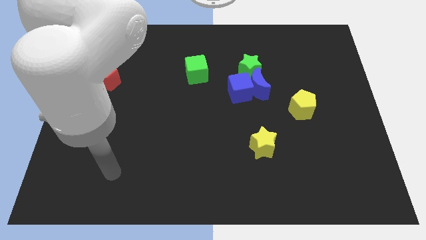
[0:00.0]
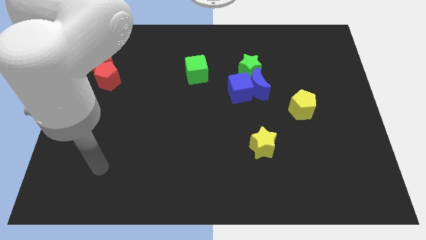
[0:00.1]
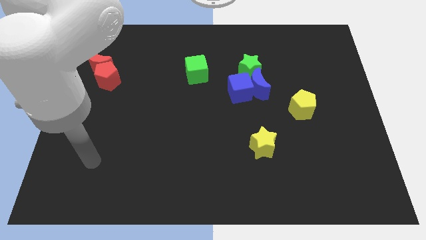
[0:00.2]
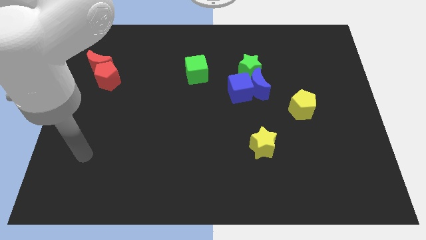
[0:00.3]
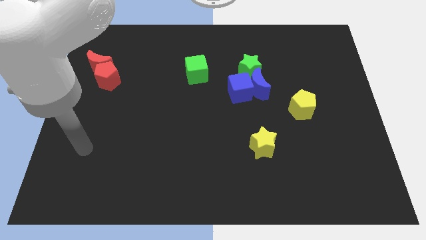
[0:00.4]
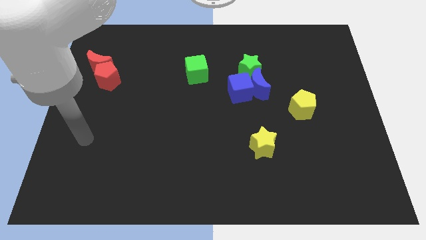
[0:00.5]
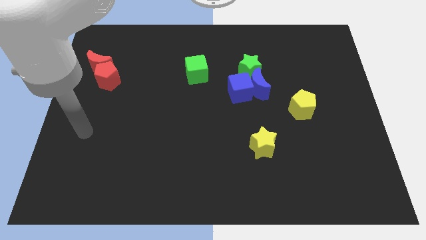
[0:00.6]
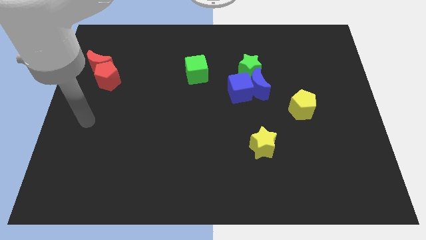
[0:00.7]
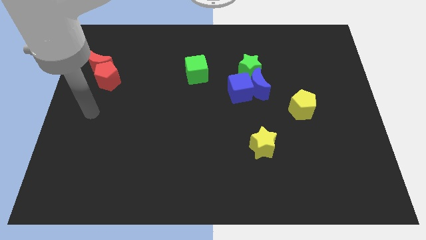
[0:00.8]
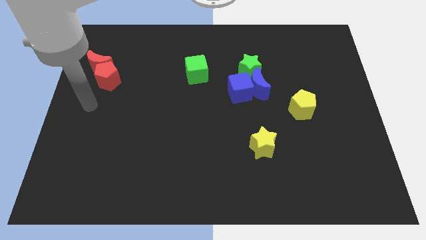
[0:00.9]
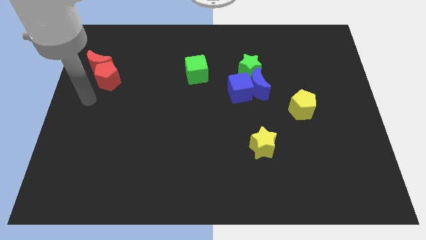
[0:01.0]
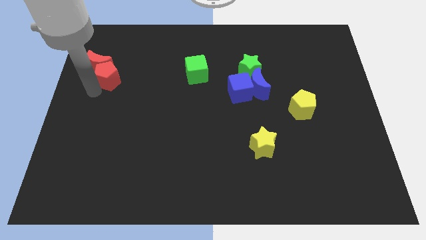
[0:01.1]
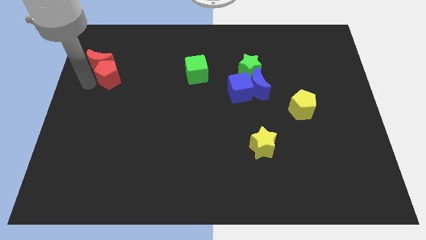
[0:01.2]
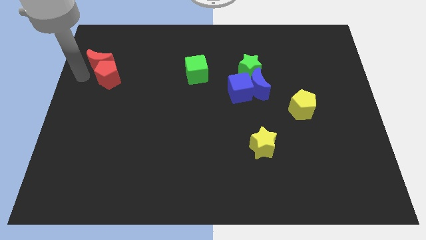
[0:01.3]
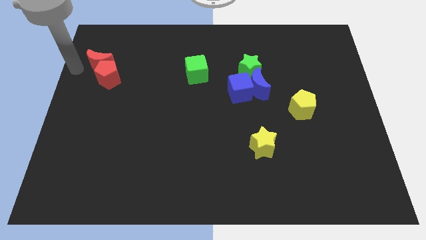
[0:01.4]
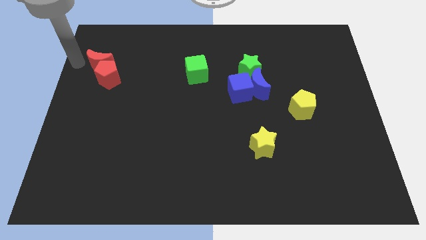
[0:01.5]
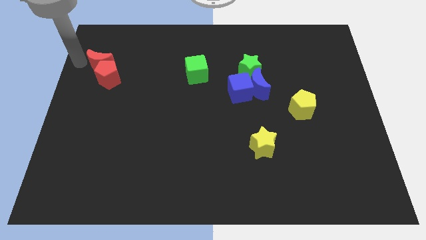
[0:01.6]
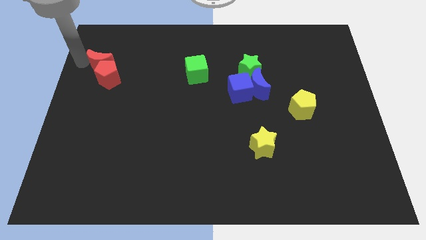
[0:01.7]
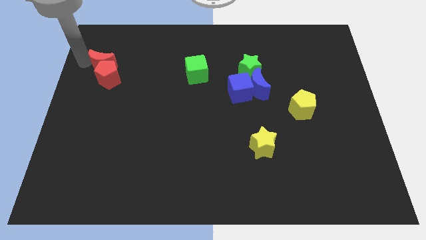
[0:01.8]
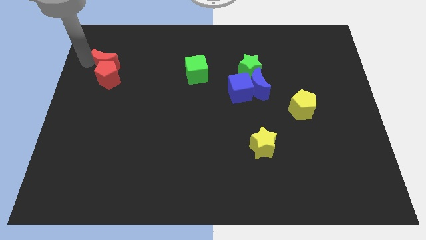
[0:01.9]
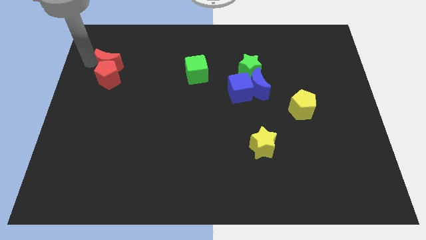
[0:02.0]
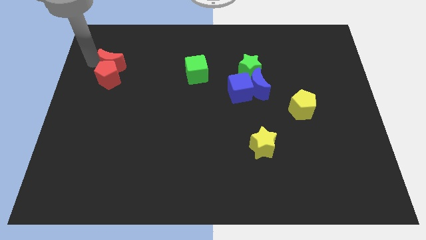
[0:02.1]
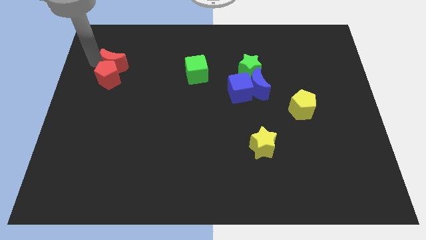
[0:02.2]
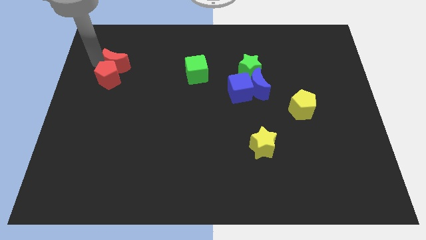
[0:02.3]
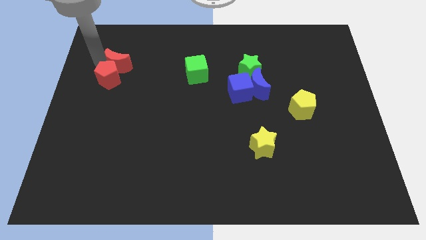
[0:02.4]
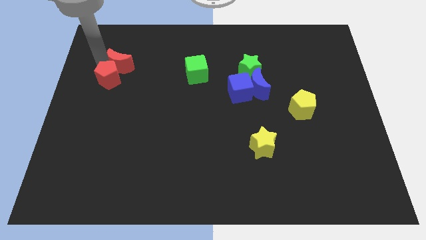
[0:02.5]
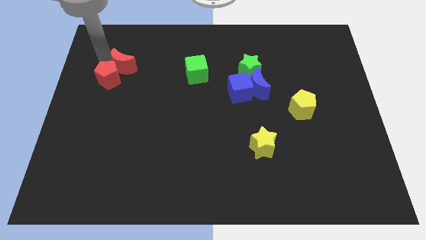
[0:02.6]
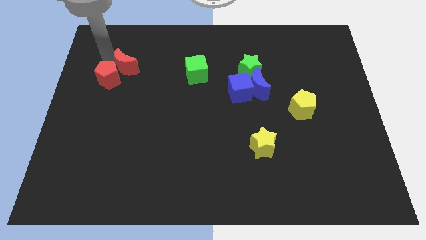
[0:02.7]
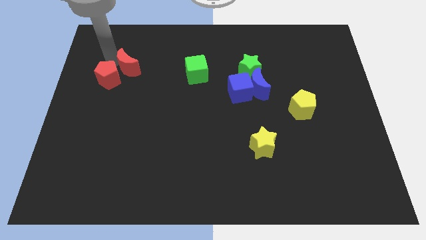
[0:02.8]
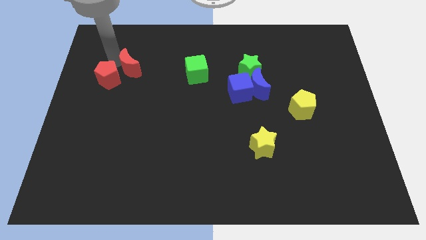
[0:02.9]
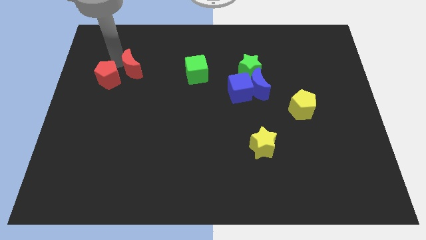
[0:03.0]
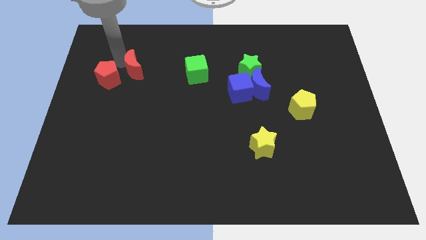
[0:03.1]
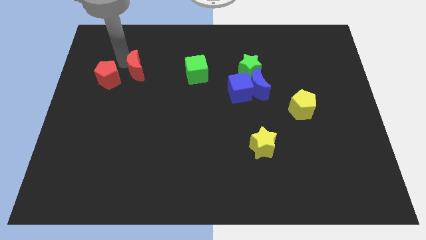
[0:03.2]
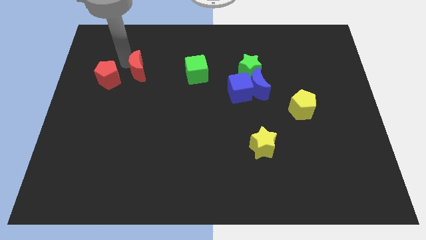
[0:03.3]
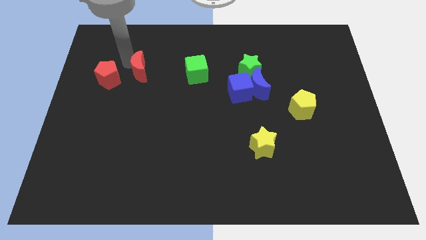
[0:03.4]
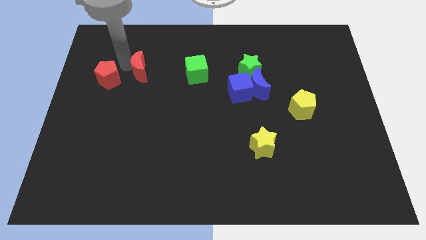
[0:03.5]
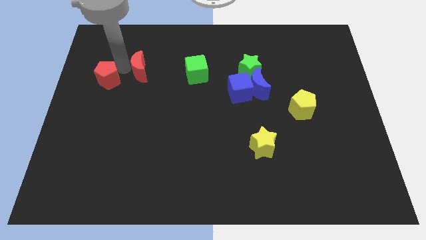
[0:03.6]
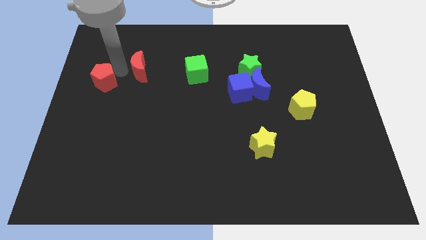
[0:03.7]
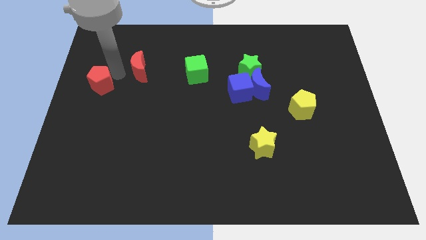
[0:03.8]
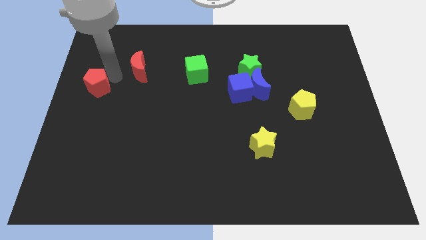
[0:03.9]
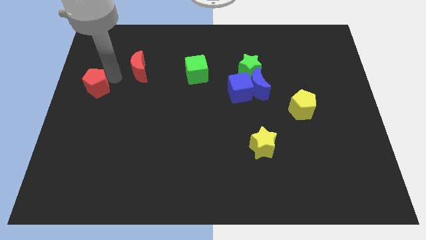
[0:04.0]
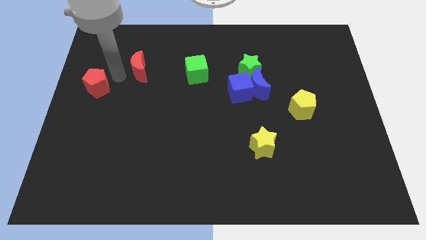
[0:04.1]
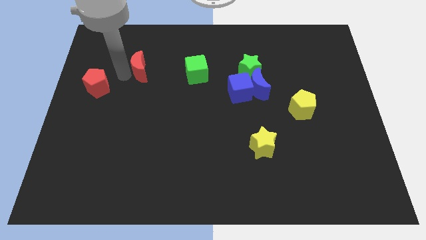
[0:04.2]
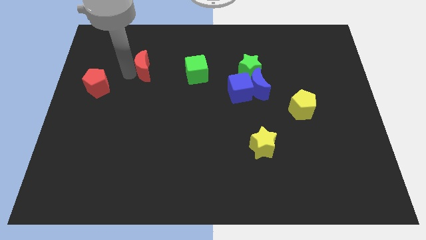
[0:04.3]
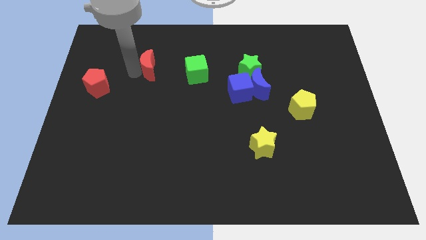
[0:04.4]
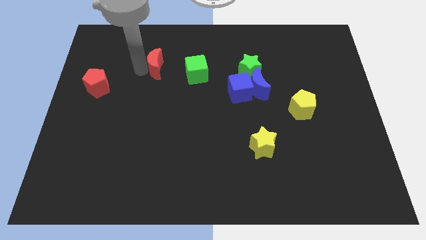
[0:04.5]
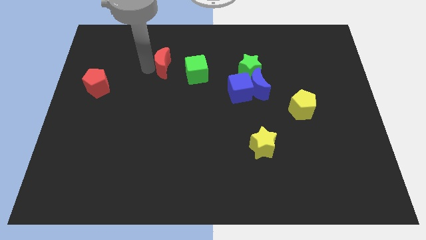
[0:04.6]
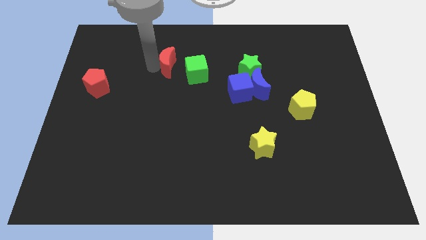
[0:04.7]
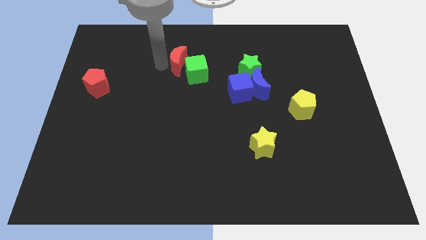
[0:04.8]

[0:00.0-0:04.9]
put the red moon to the green cube

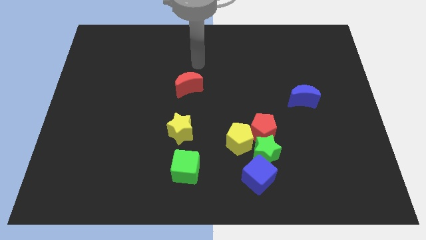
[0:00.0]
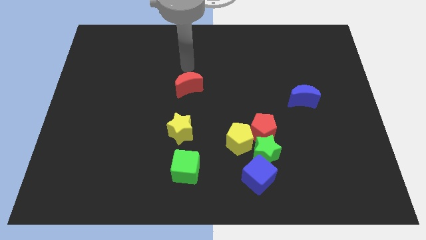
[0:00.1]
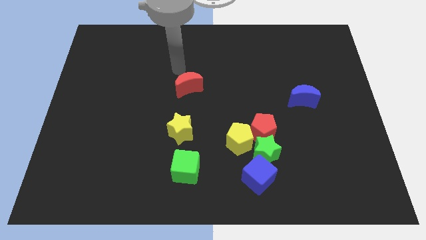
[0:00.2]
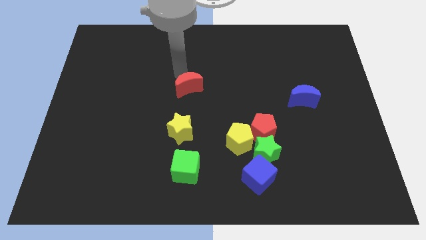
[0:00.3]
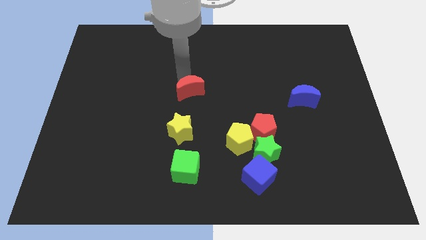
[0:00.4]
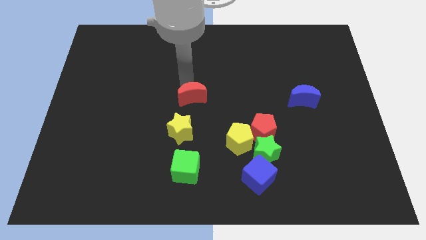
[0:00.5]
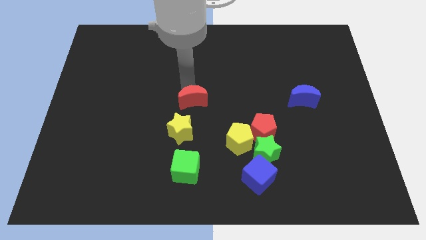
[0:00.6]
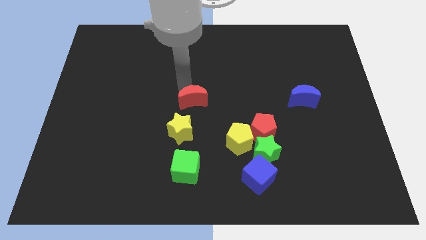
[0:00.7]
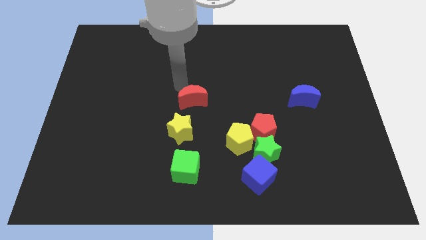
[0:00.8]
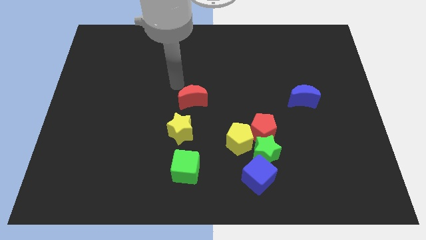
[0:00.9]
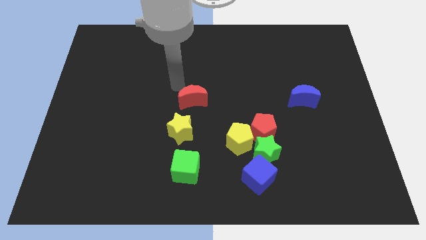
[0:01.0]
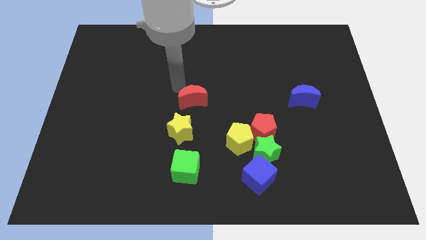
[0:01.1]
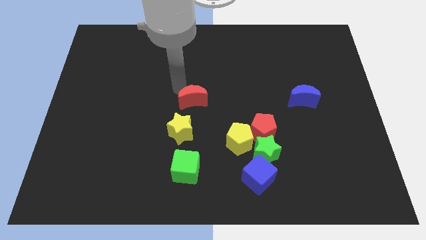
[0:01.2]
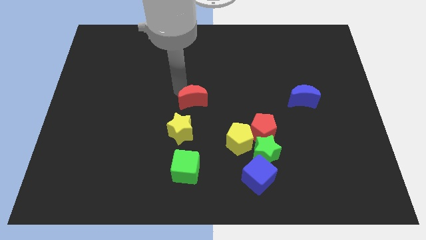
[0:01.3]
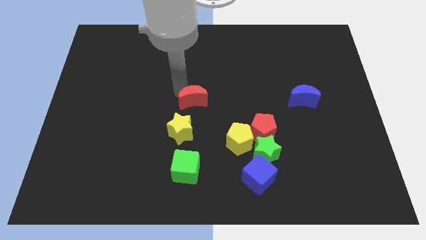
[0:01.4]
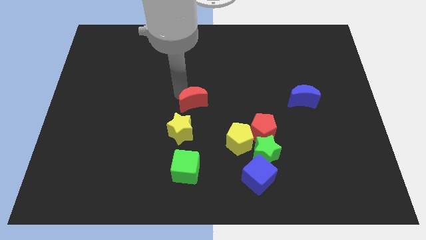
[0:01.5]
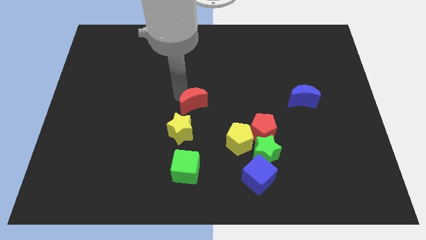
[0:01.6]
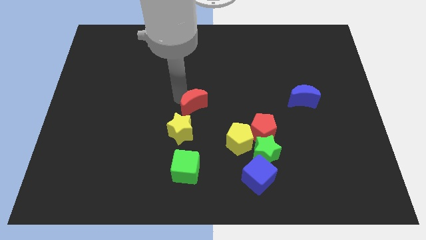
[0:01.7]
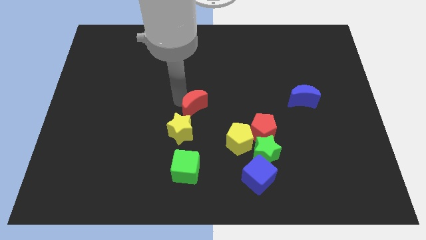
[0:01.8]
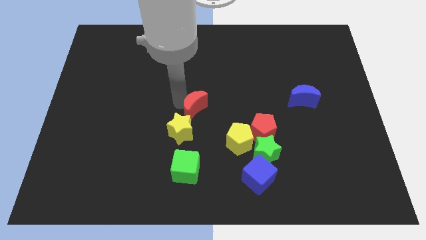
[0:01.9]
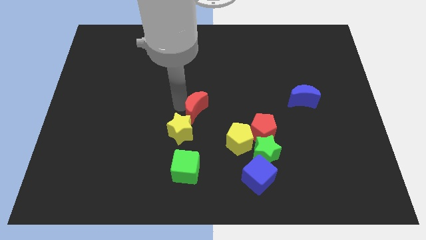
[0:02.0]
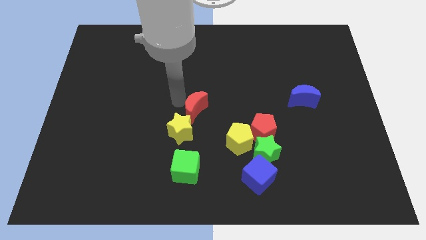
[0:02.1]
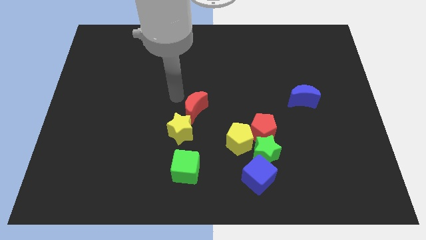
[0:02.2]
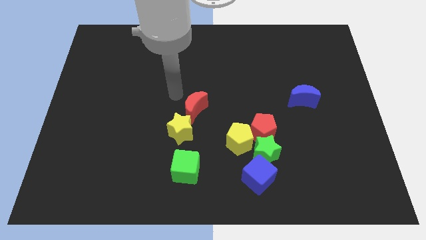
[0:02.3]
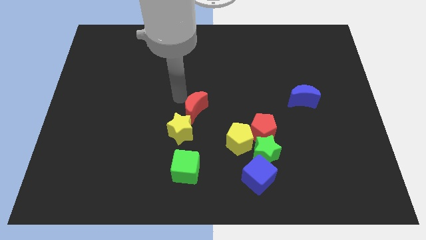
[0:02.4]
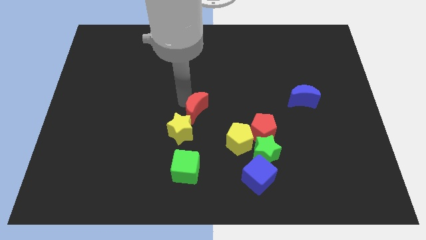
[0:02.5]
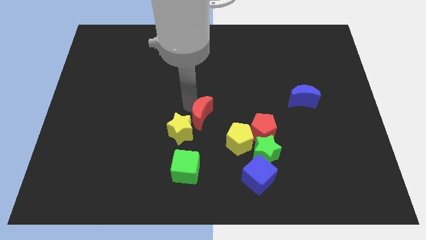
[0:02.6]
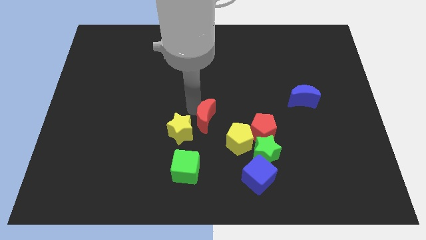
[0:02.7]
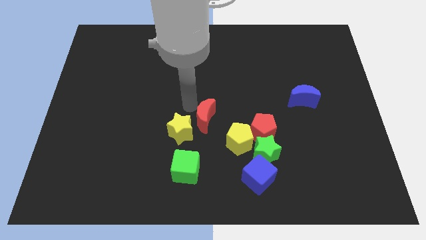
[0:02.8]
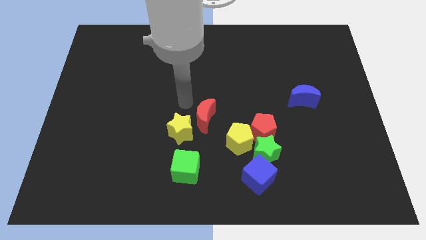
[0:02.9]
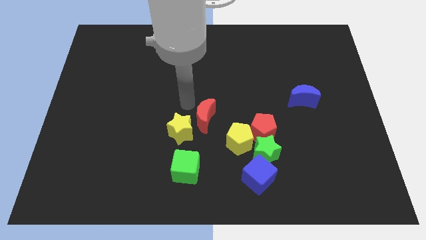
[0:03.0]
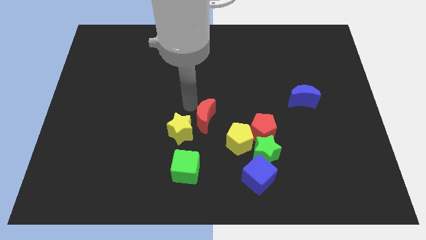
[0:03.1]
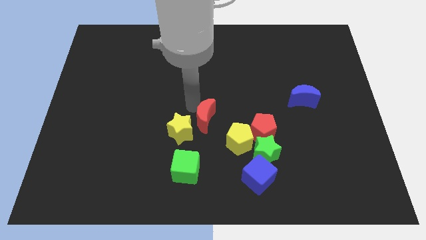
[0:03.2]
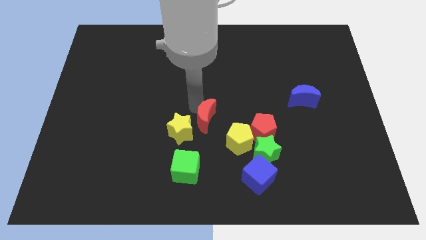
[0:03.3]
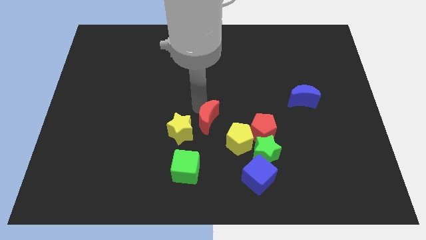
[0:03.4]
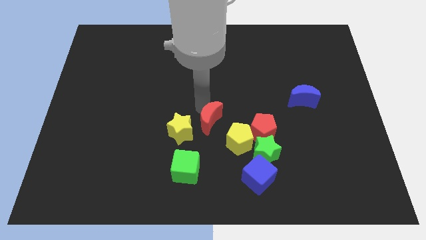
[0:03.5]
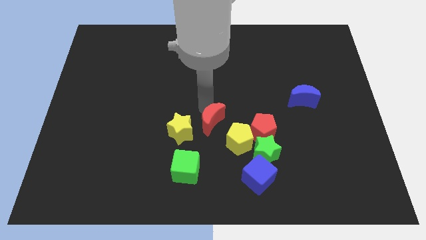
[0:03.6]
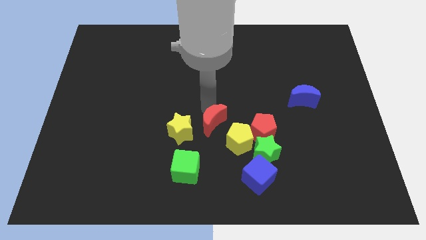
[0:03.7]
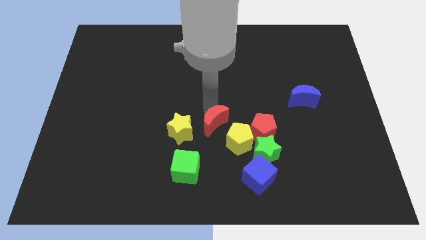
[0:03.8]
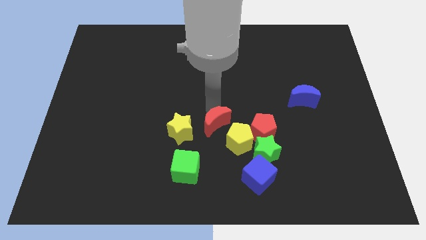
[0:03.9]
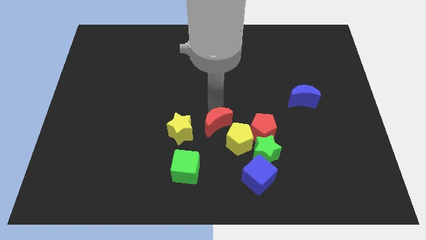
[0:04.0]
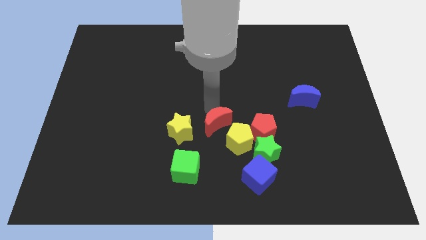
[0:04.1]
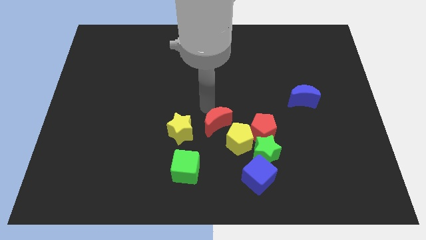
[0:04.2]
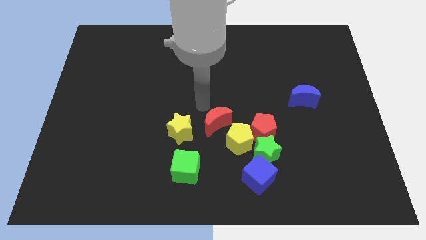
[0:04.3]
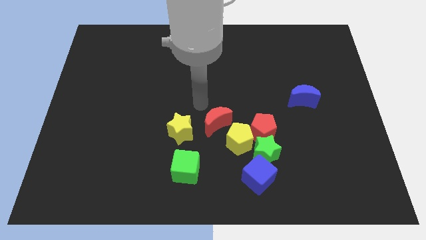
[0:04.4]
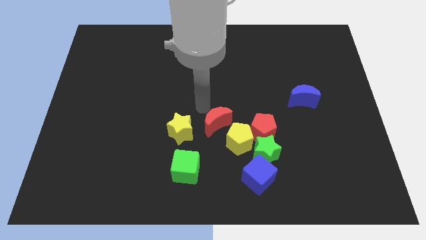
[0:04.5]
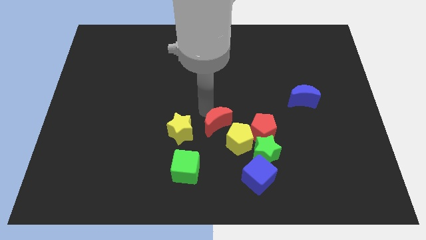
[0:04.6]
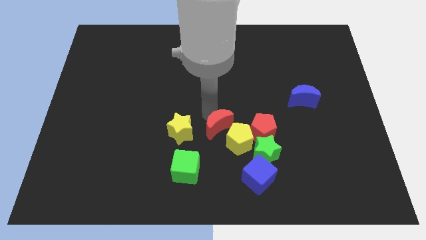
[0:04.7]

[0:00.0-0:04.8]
move the red moon next to the yellow pentagon
